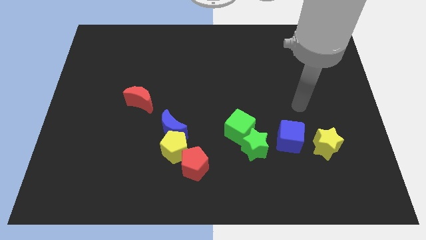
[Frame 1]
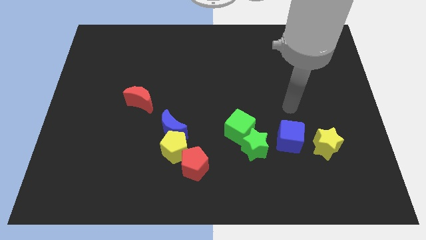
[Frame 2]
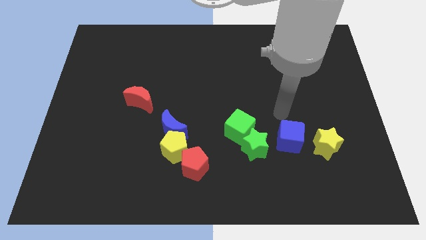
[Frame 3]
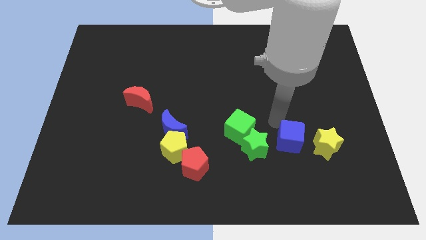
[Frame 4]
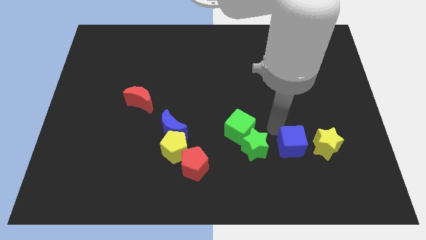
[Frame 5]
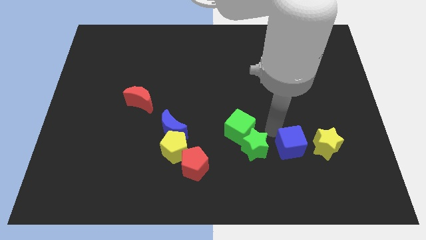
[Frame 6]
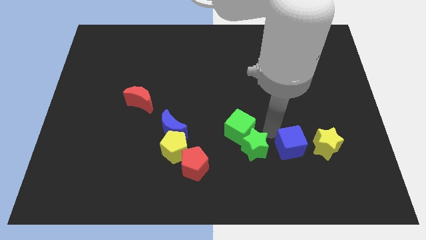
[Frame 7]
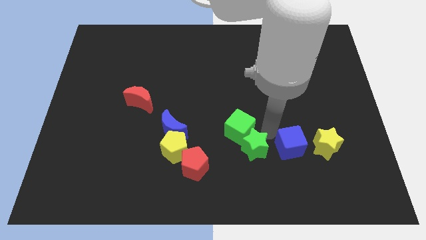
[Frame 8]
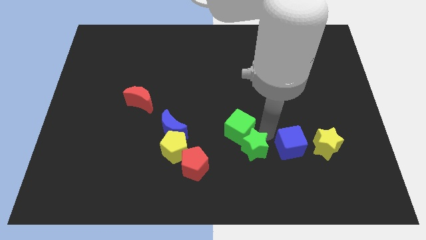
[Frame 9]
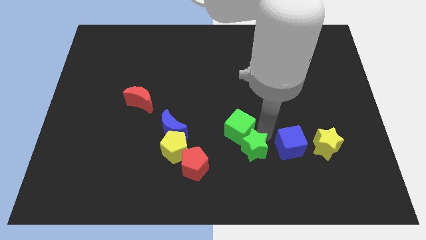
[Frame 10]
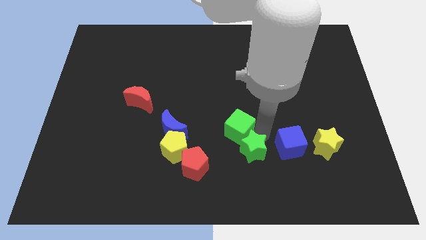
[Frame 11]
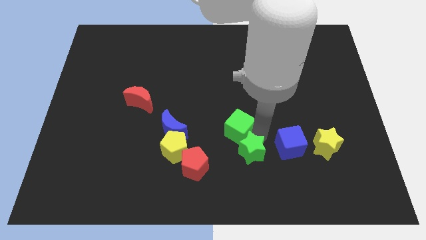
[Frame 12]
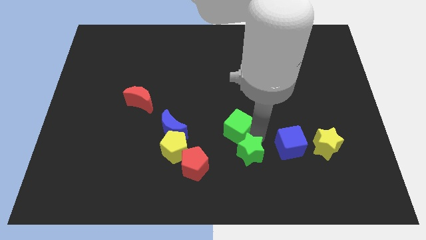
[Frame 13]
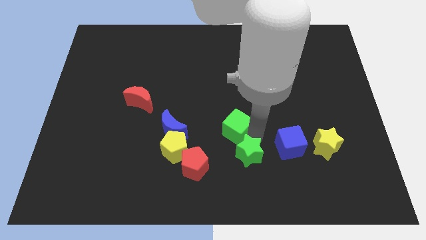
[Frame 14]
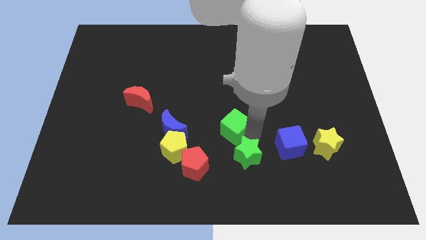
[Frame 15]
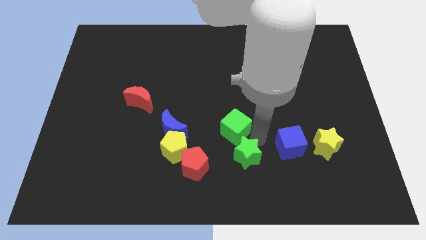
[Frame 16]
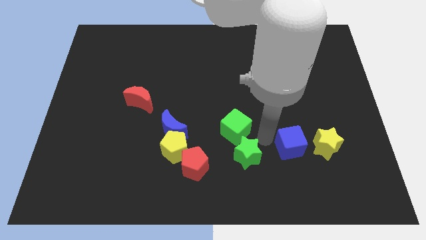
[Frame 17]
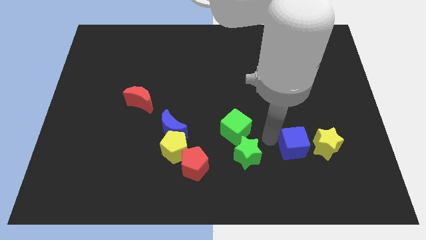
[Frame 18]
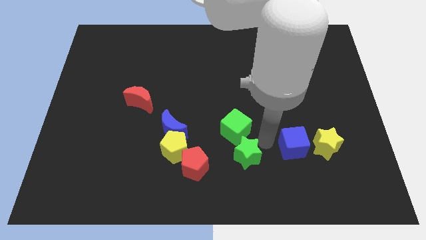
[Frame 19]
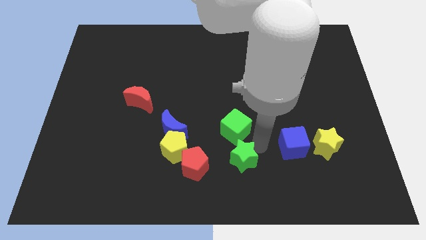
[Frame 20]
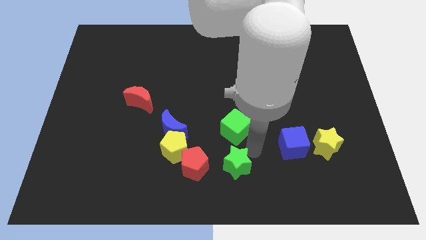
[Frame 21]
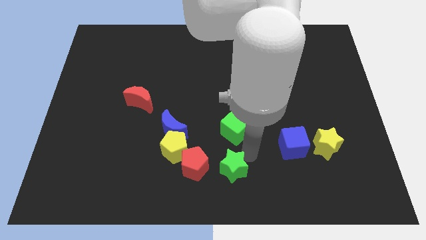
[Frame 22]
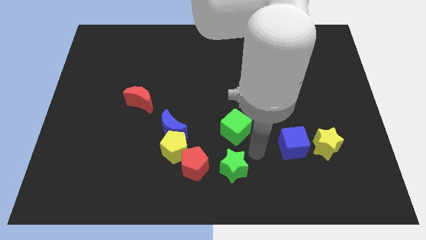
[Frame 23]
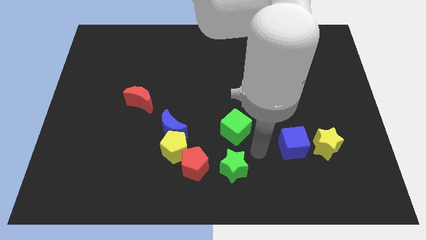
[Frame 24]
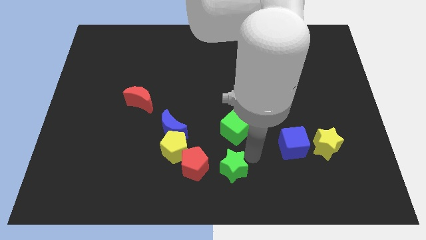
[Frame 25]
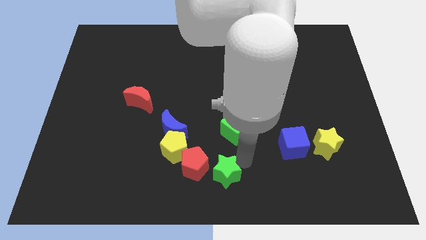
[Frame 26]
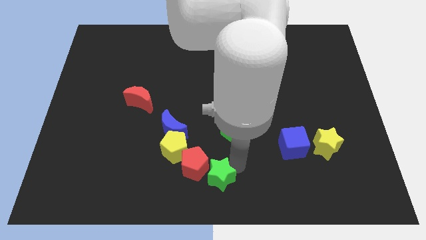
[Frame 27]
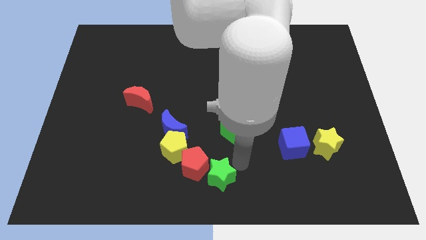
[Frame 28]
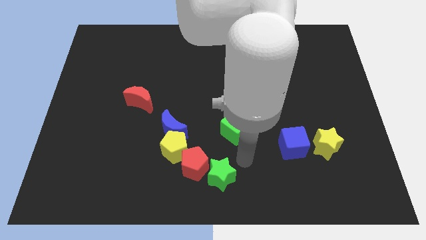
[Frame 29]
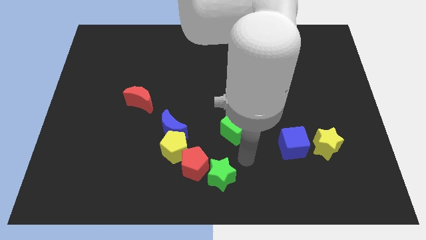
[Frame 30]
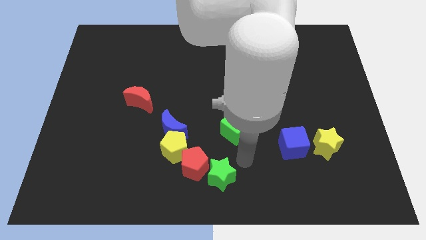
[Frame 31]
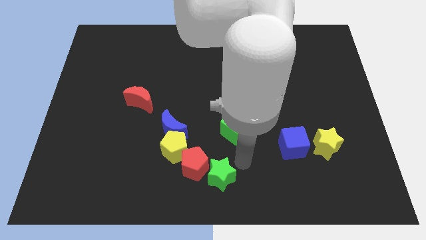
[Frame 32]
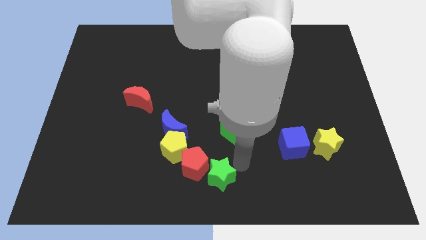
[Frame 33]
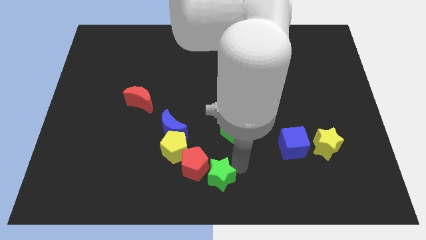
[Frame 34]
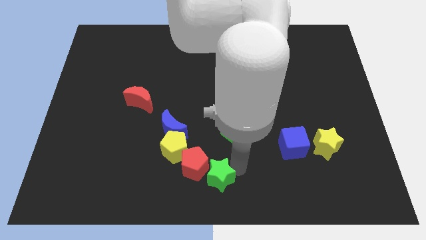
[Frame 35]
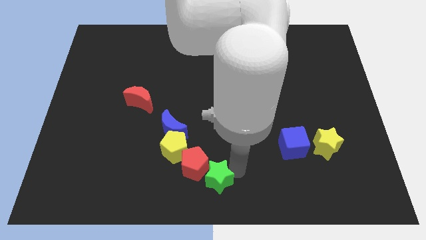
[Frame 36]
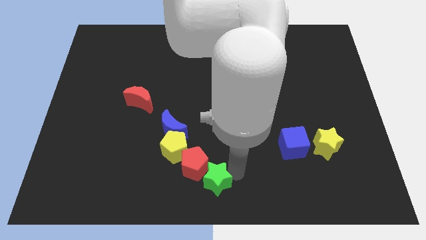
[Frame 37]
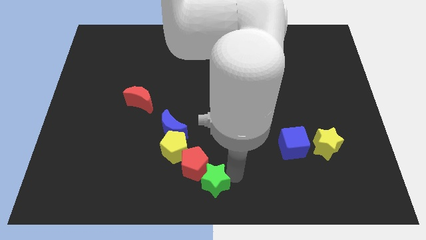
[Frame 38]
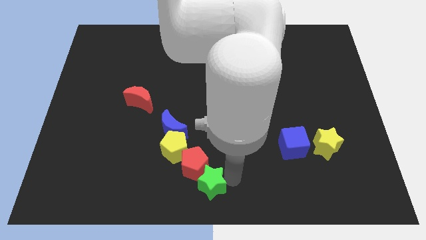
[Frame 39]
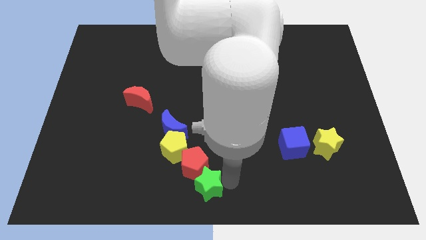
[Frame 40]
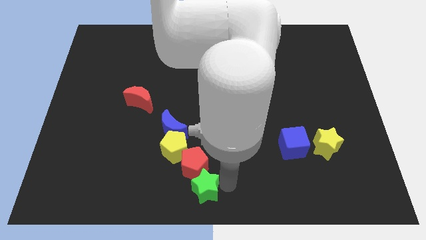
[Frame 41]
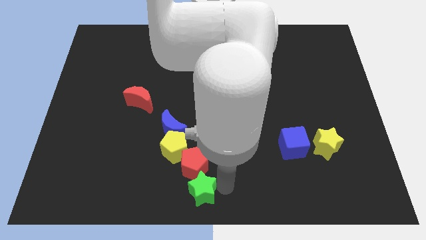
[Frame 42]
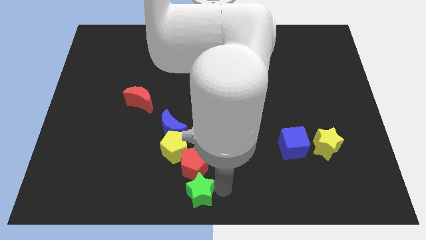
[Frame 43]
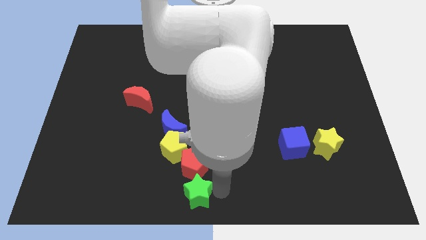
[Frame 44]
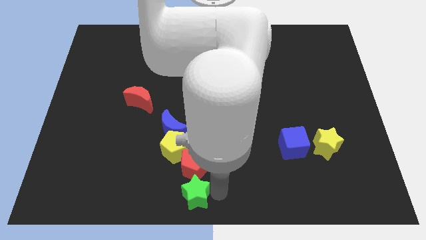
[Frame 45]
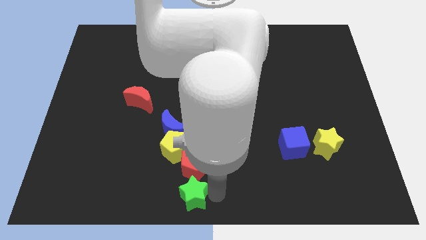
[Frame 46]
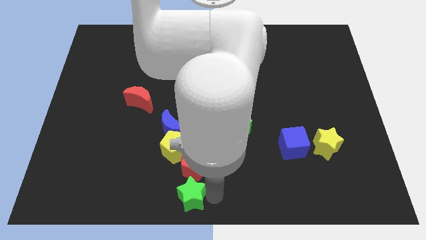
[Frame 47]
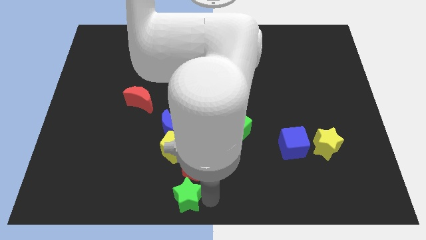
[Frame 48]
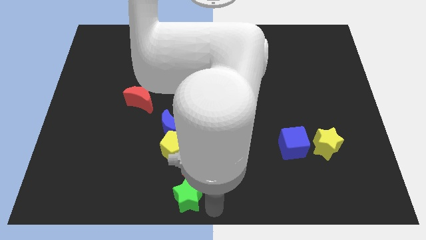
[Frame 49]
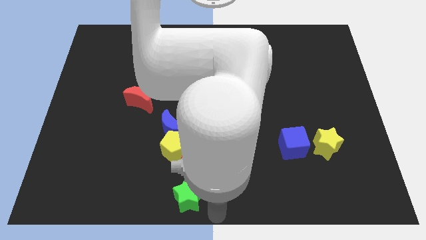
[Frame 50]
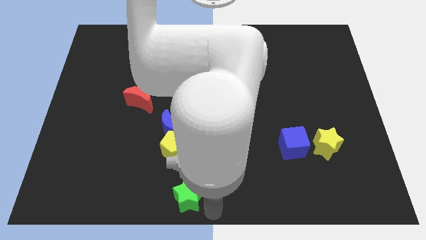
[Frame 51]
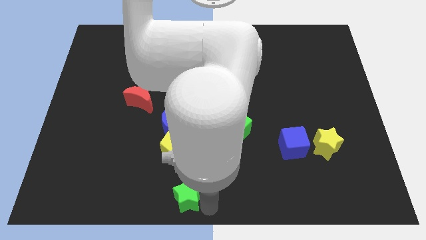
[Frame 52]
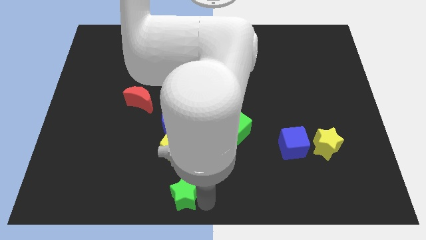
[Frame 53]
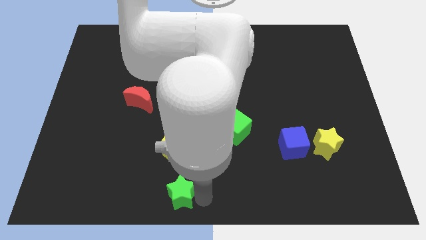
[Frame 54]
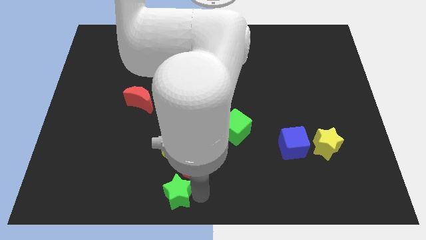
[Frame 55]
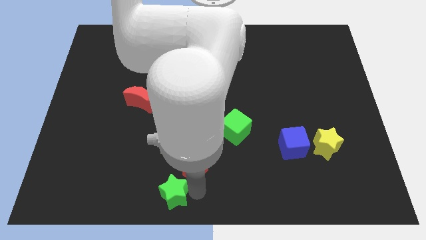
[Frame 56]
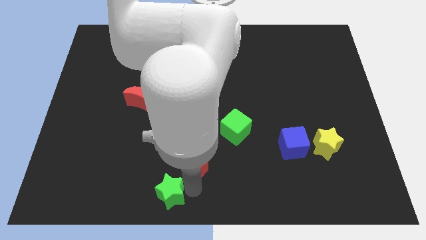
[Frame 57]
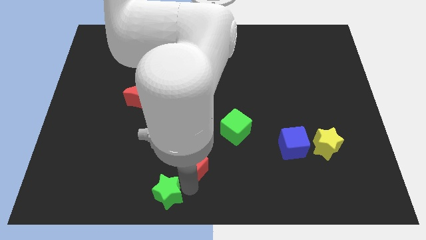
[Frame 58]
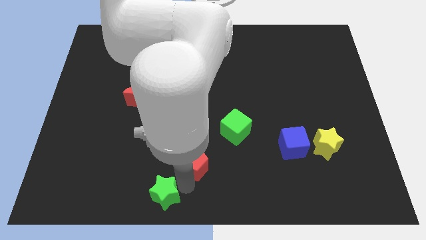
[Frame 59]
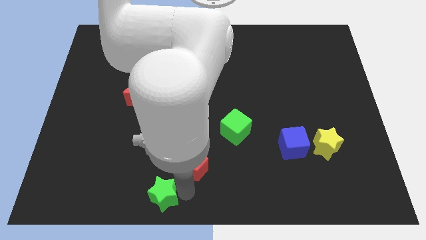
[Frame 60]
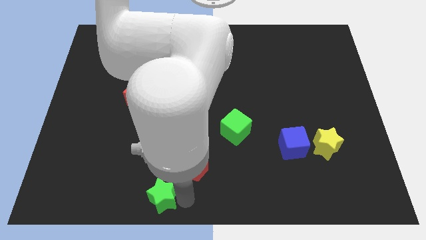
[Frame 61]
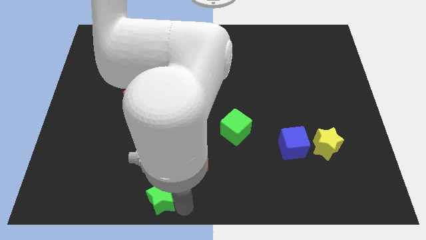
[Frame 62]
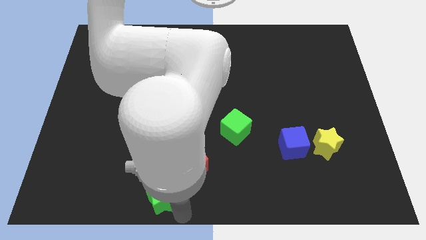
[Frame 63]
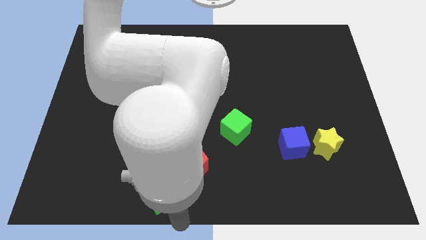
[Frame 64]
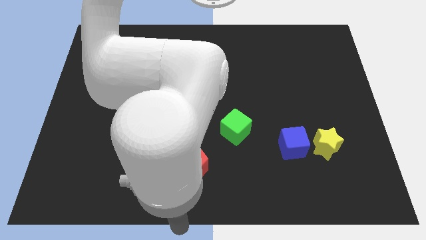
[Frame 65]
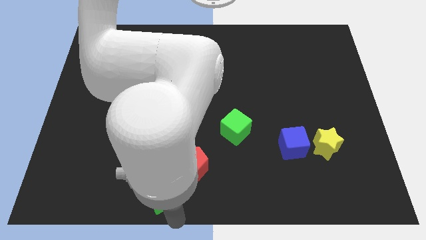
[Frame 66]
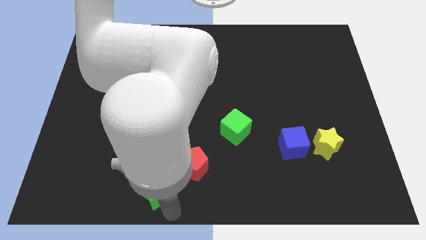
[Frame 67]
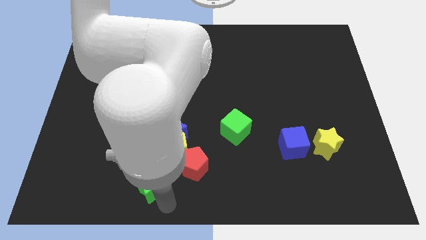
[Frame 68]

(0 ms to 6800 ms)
slide the green star to the bottom left side of the yellow pentagon

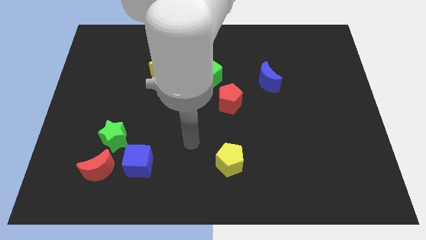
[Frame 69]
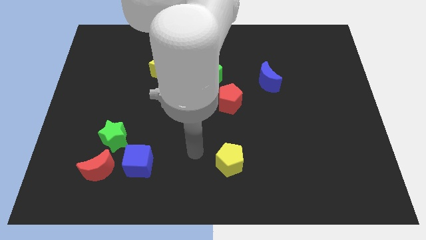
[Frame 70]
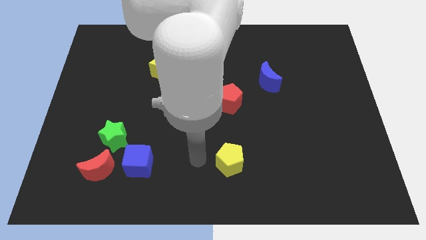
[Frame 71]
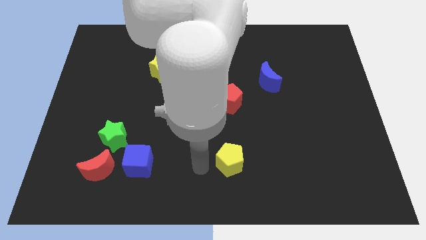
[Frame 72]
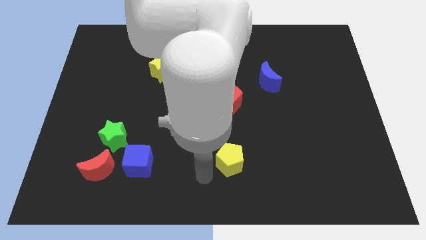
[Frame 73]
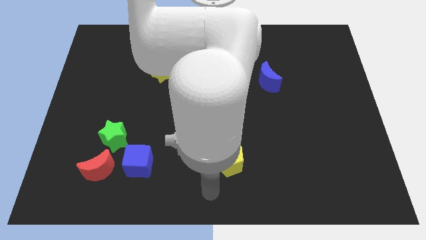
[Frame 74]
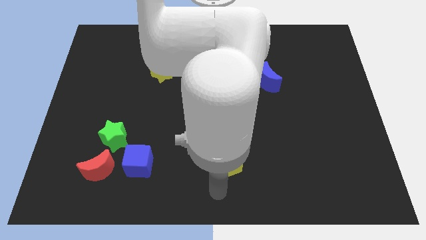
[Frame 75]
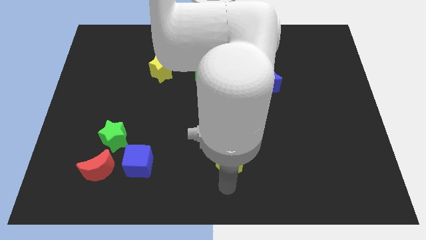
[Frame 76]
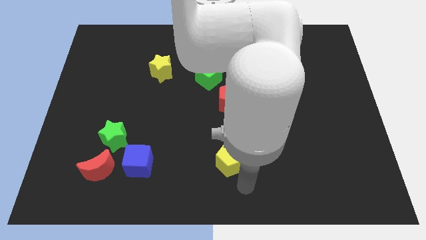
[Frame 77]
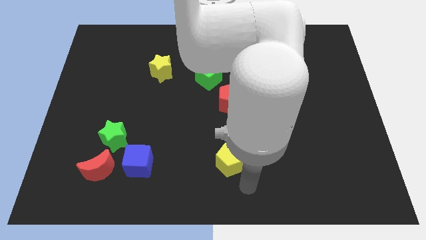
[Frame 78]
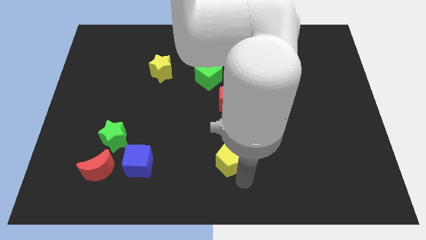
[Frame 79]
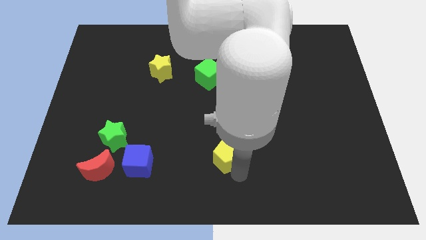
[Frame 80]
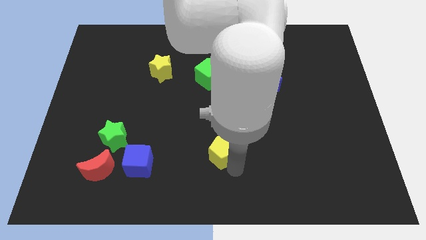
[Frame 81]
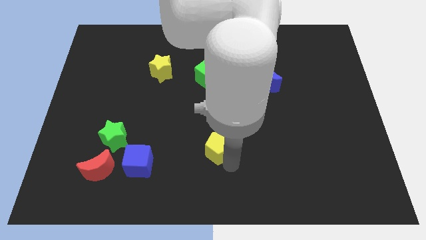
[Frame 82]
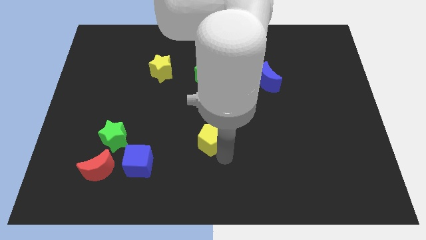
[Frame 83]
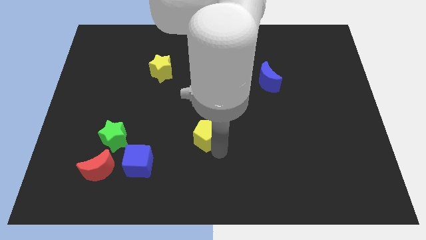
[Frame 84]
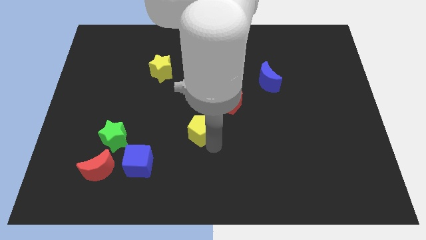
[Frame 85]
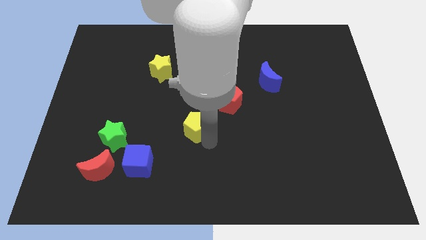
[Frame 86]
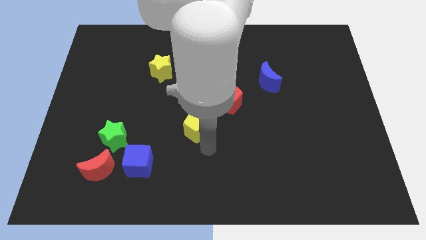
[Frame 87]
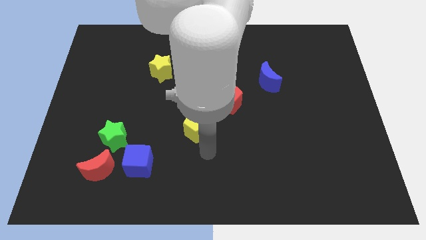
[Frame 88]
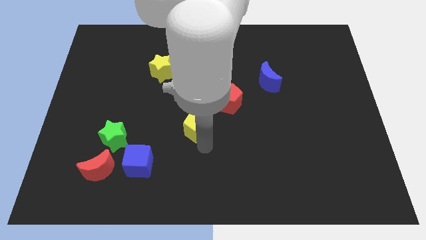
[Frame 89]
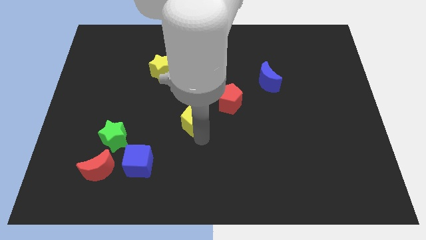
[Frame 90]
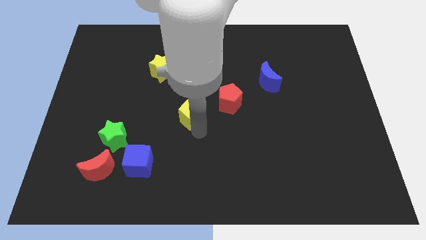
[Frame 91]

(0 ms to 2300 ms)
slide the yellow pentagon just left of the red pentagon
